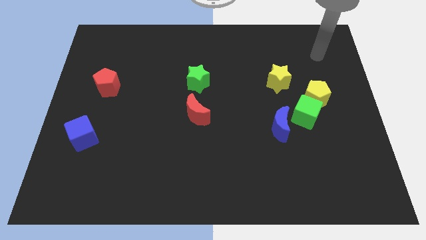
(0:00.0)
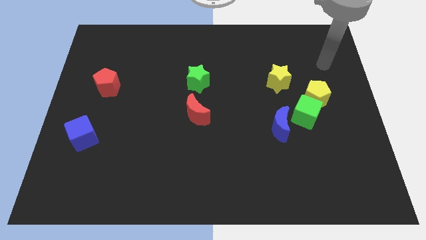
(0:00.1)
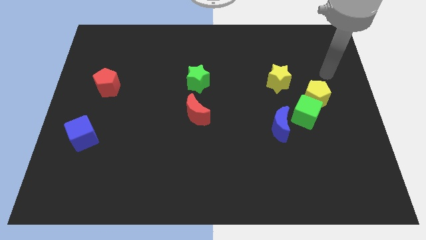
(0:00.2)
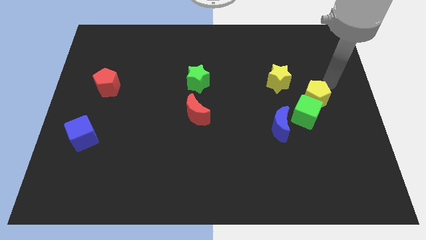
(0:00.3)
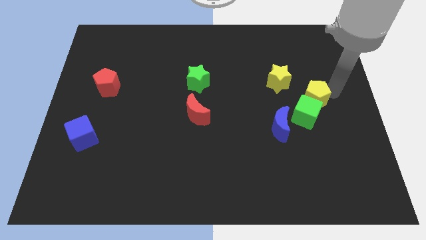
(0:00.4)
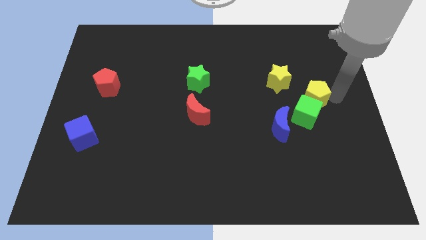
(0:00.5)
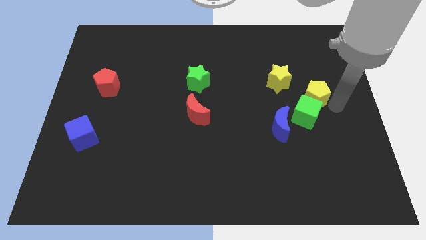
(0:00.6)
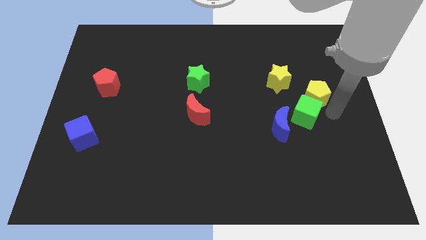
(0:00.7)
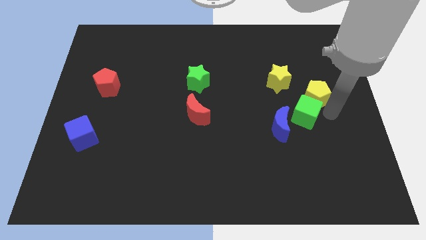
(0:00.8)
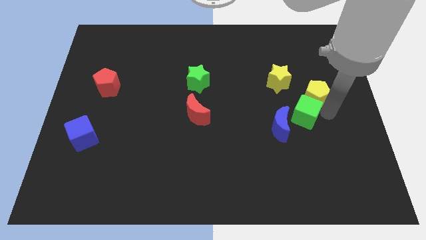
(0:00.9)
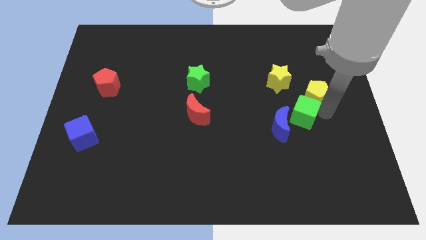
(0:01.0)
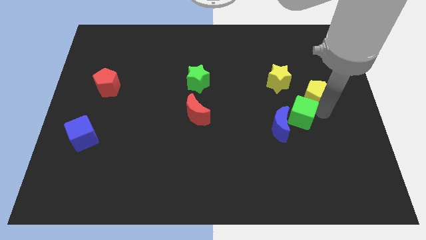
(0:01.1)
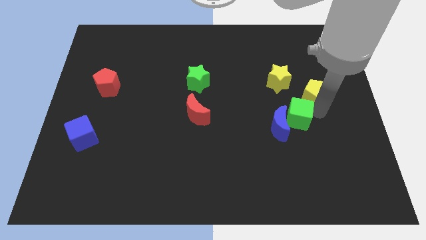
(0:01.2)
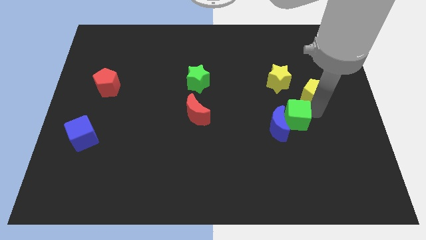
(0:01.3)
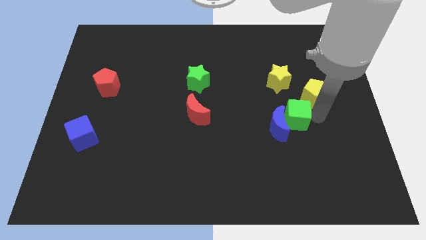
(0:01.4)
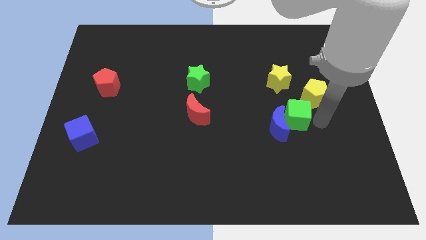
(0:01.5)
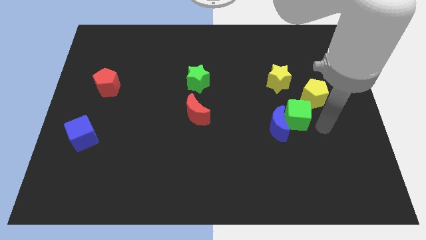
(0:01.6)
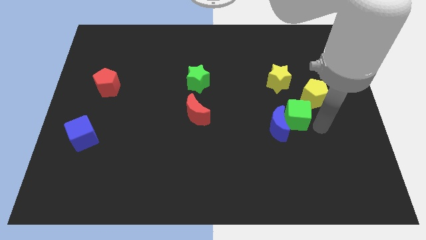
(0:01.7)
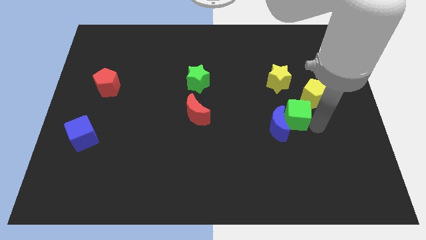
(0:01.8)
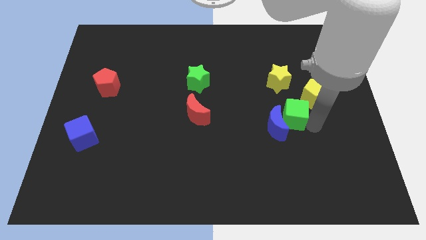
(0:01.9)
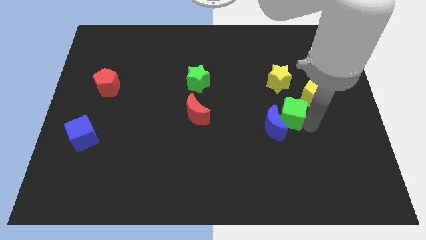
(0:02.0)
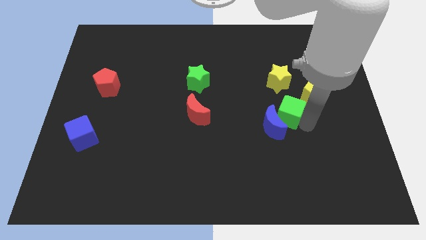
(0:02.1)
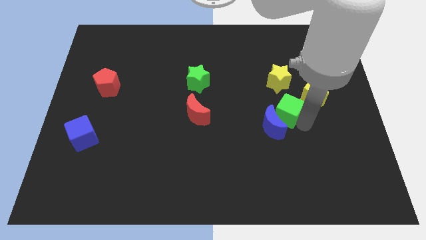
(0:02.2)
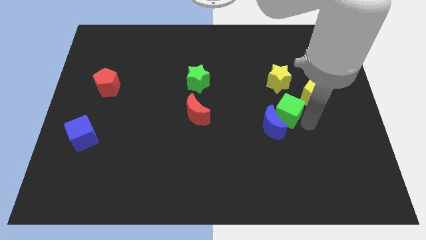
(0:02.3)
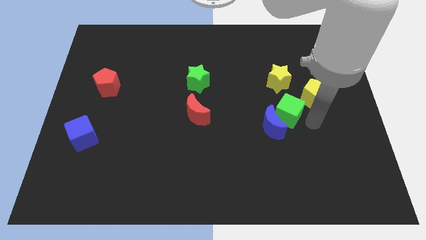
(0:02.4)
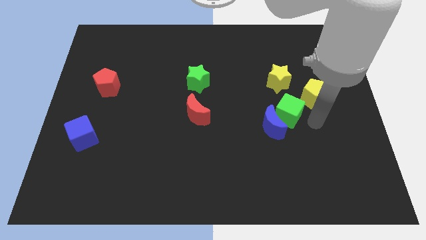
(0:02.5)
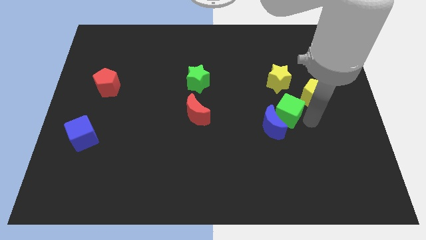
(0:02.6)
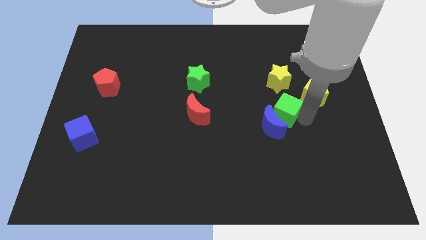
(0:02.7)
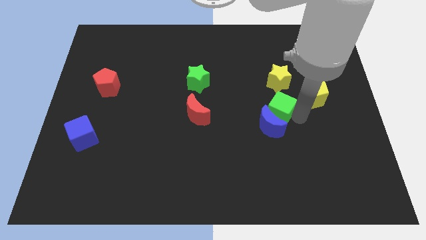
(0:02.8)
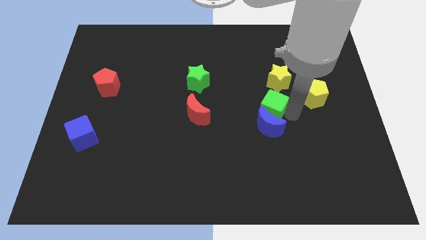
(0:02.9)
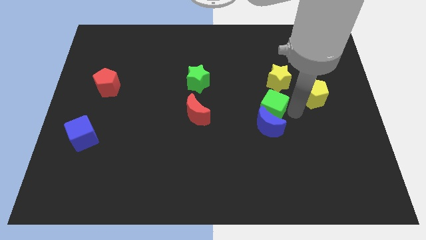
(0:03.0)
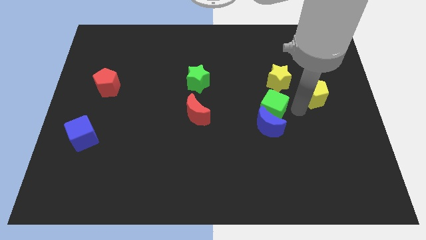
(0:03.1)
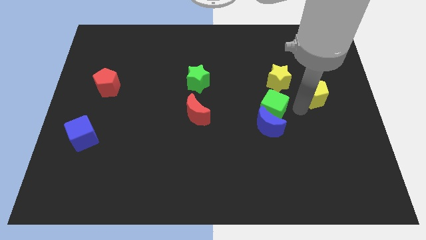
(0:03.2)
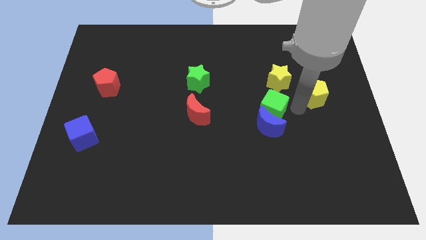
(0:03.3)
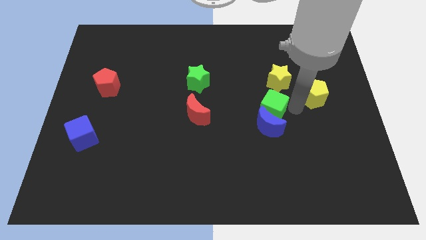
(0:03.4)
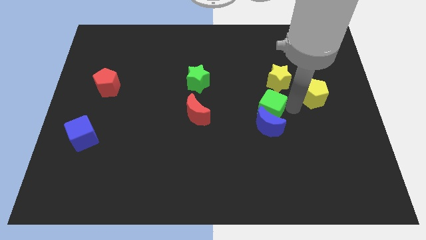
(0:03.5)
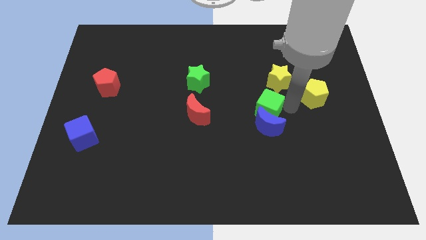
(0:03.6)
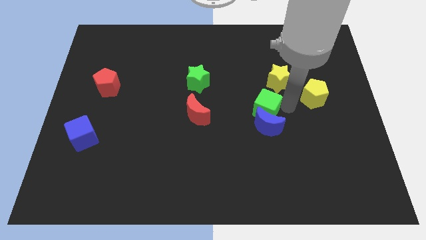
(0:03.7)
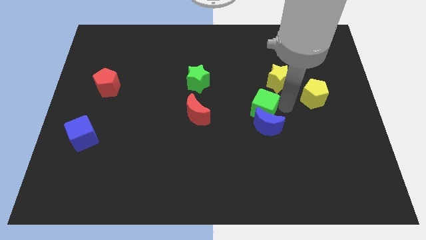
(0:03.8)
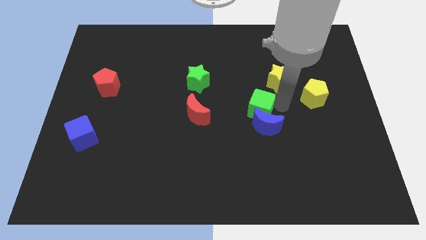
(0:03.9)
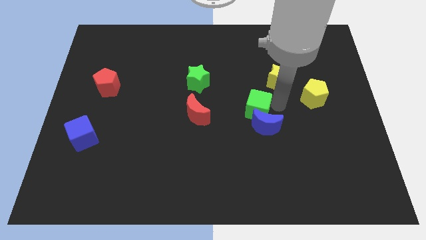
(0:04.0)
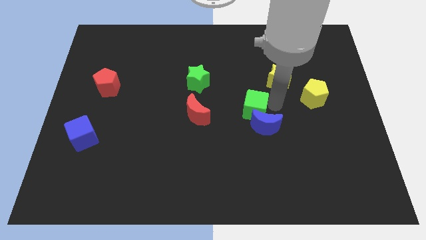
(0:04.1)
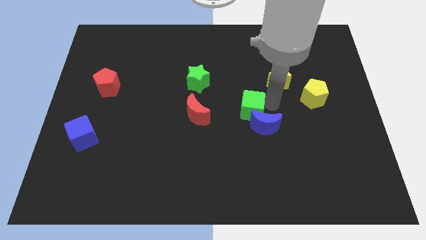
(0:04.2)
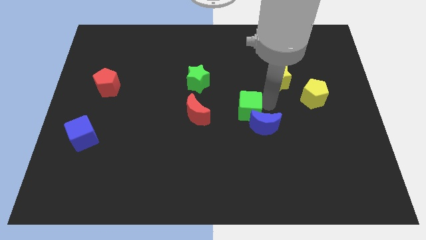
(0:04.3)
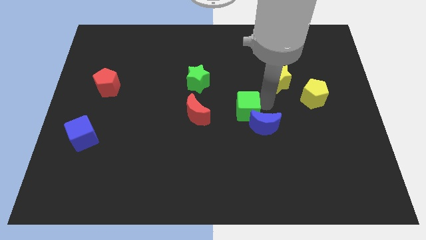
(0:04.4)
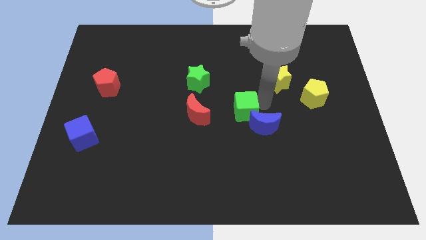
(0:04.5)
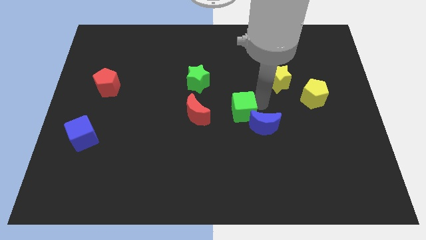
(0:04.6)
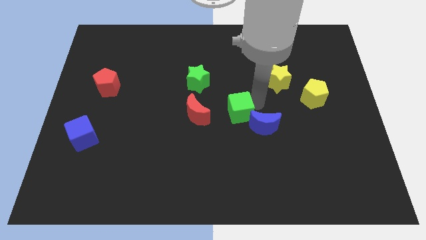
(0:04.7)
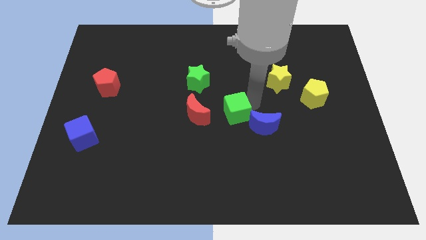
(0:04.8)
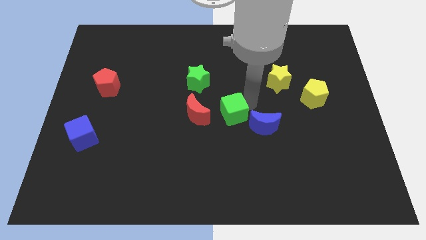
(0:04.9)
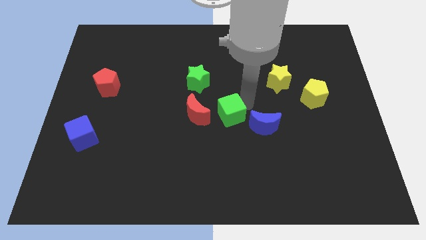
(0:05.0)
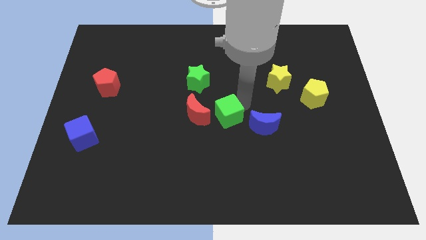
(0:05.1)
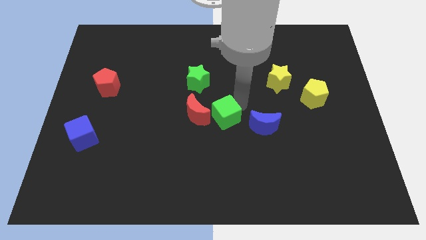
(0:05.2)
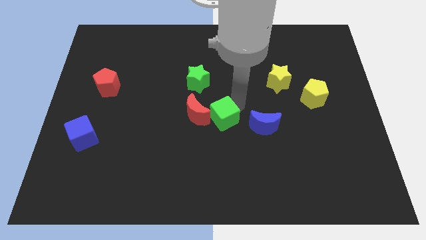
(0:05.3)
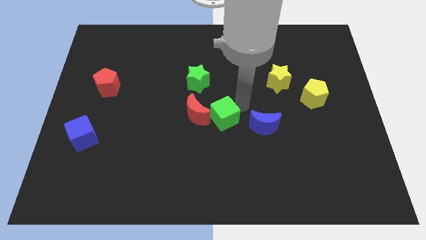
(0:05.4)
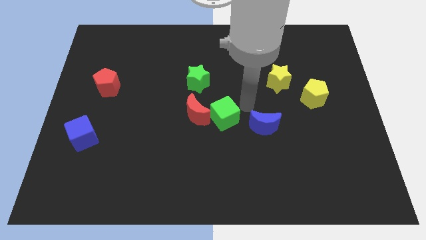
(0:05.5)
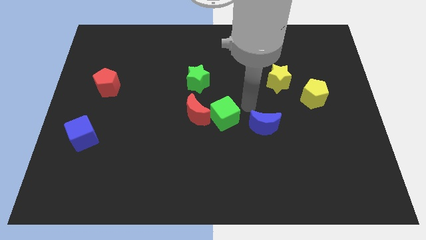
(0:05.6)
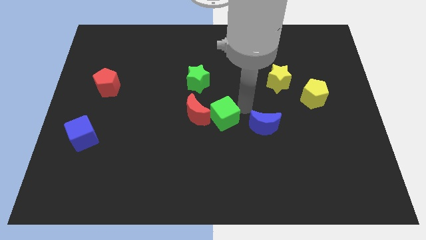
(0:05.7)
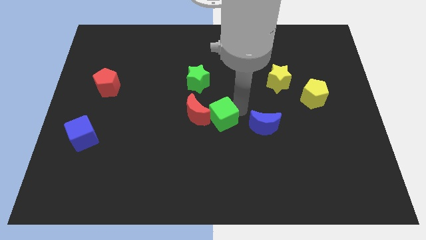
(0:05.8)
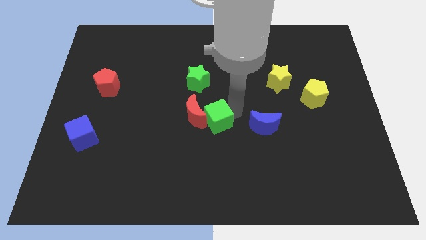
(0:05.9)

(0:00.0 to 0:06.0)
push the green cube to the bottom side of the green star

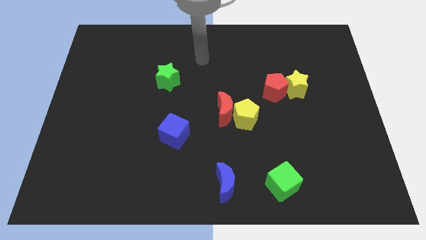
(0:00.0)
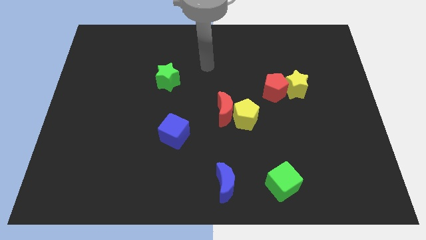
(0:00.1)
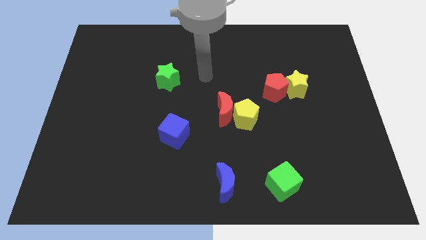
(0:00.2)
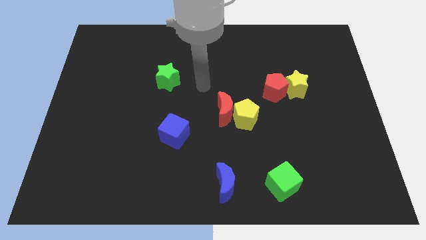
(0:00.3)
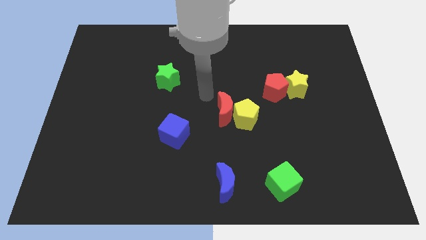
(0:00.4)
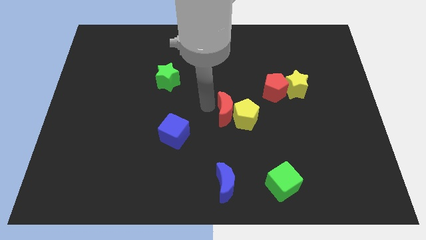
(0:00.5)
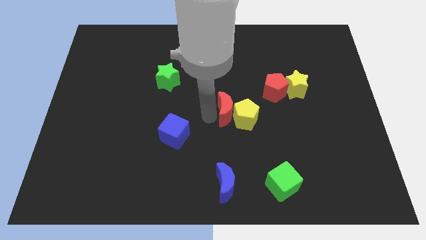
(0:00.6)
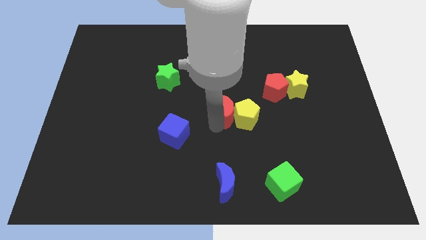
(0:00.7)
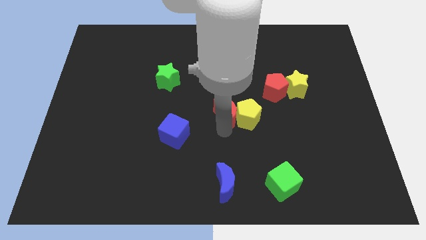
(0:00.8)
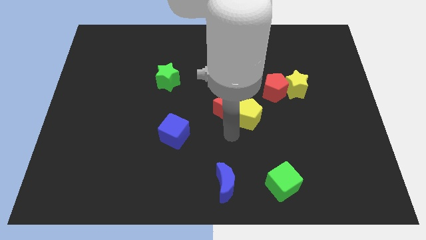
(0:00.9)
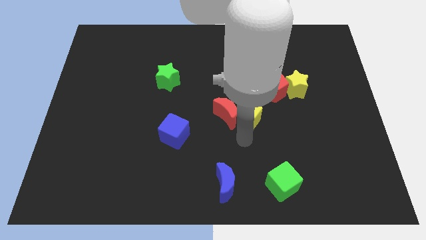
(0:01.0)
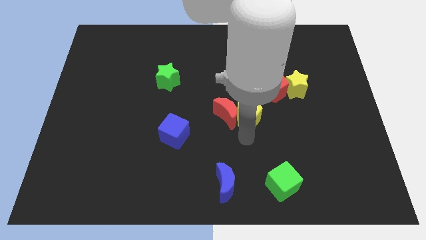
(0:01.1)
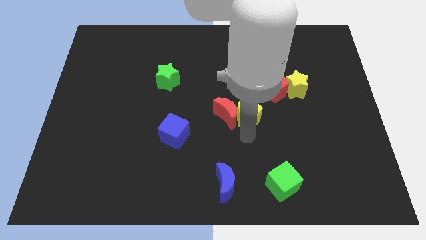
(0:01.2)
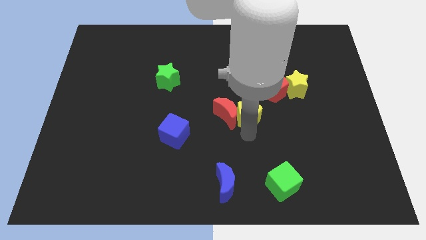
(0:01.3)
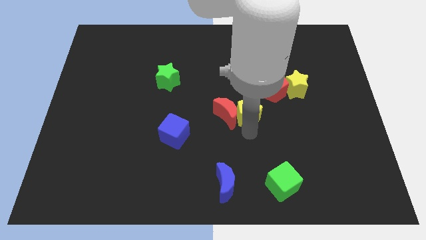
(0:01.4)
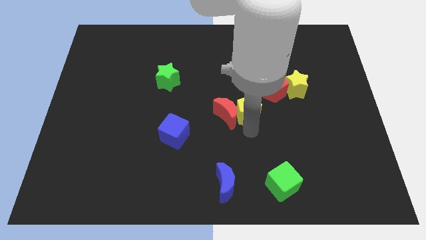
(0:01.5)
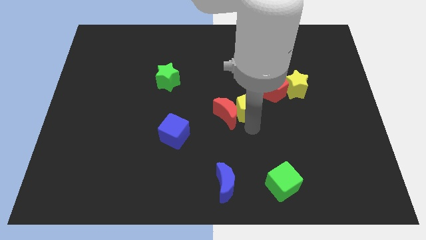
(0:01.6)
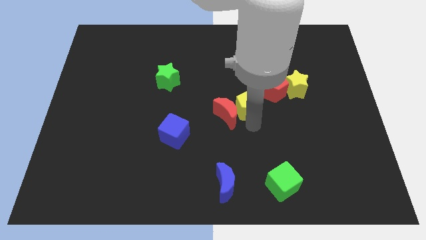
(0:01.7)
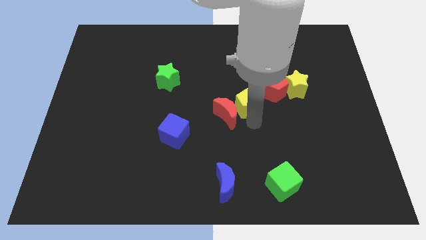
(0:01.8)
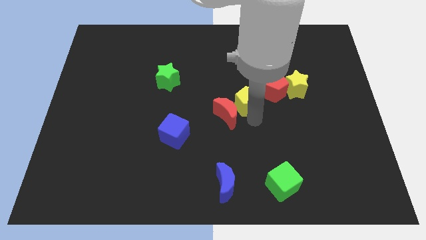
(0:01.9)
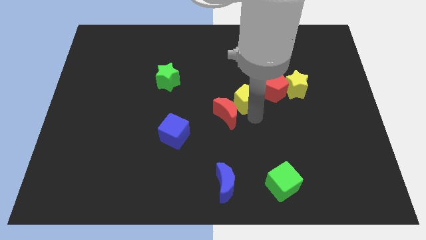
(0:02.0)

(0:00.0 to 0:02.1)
push the yellow pentagon left of the yellow star
